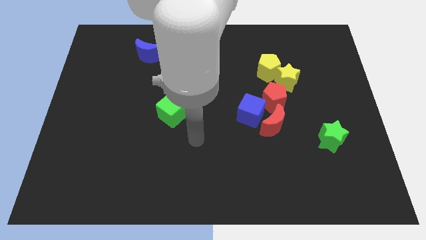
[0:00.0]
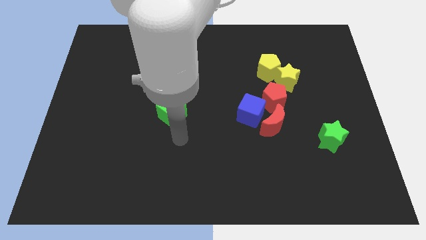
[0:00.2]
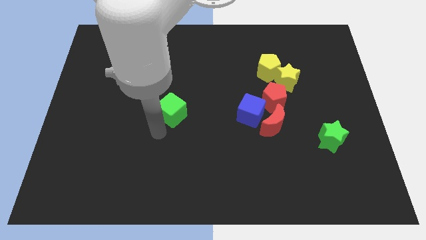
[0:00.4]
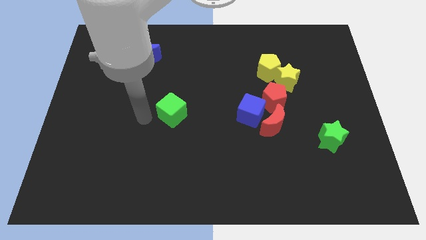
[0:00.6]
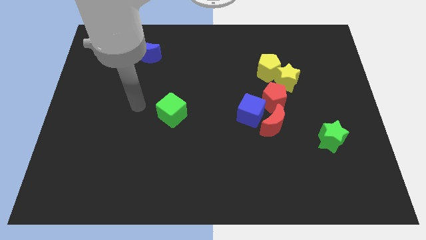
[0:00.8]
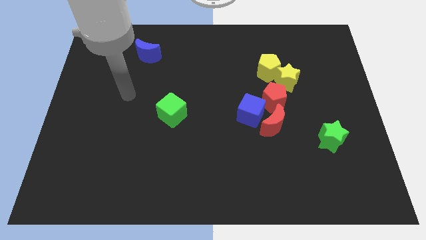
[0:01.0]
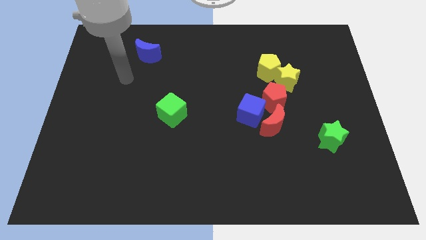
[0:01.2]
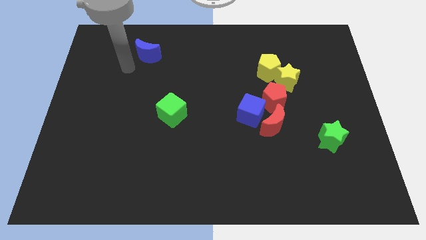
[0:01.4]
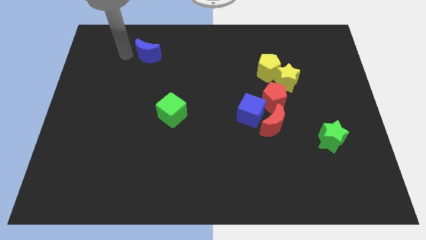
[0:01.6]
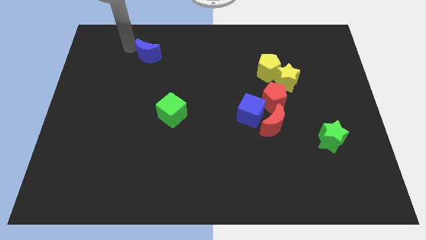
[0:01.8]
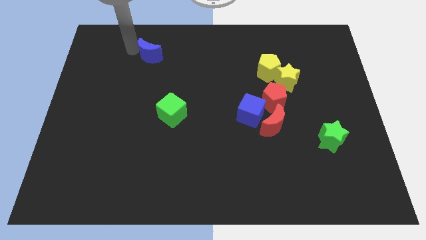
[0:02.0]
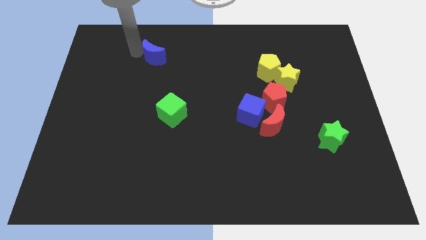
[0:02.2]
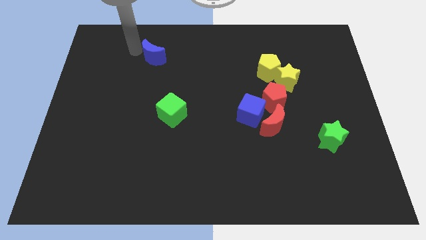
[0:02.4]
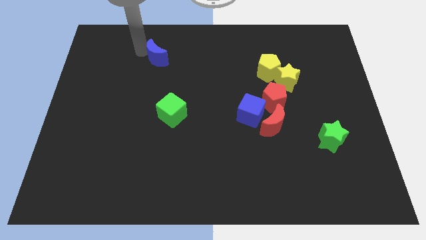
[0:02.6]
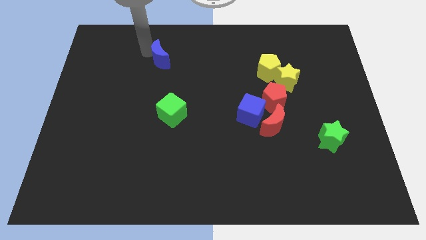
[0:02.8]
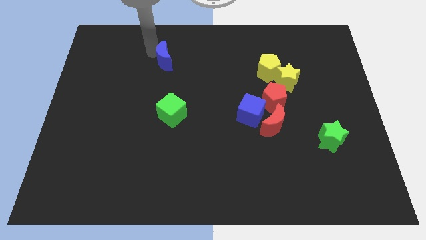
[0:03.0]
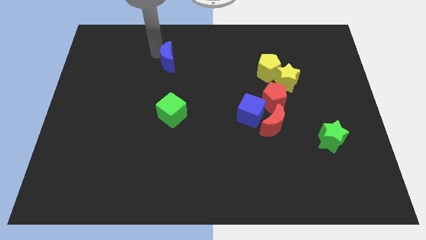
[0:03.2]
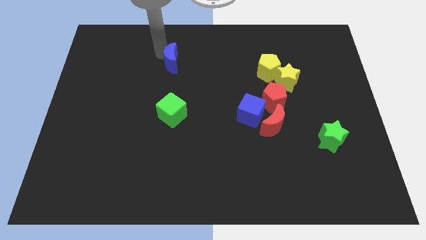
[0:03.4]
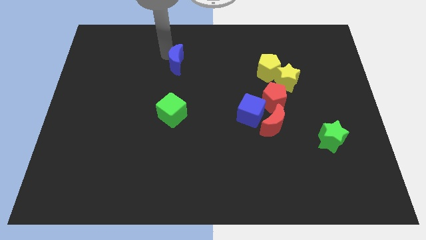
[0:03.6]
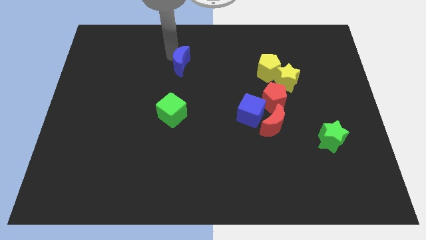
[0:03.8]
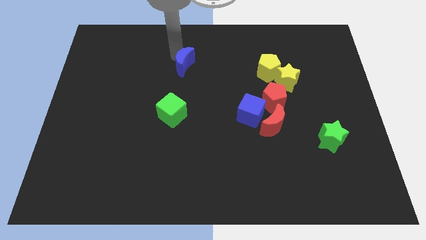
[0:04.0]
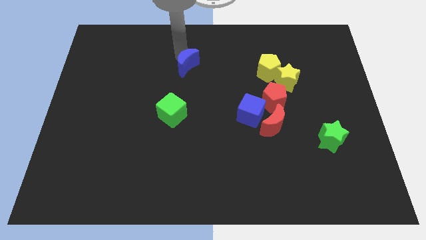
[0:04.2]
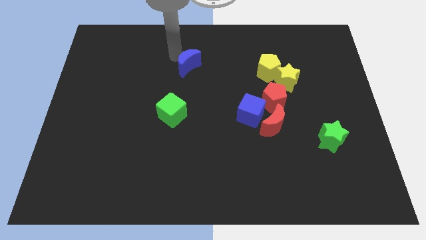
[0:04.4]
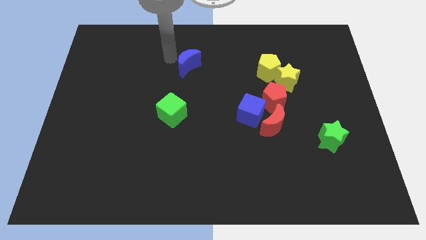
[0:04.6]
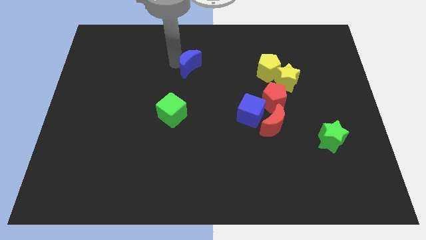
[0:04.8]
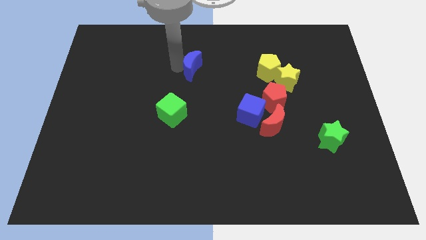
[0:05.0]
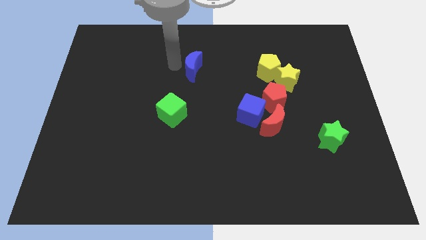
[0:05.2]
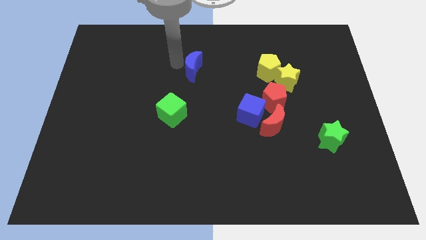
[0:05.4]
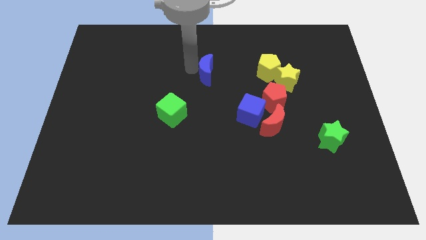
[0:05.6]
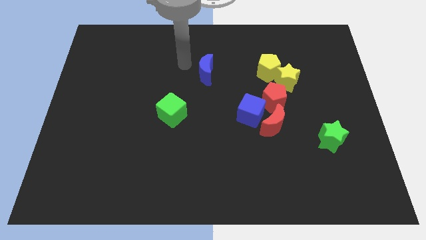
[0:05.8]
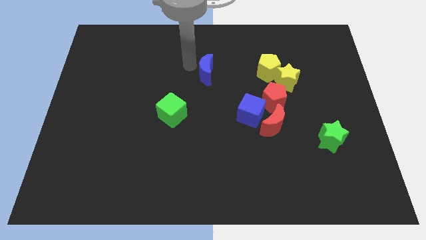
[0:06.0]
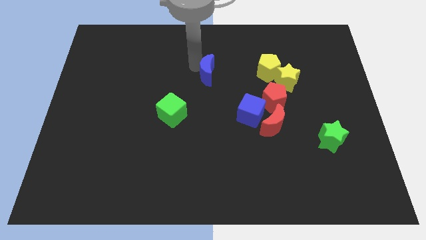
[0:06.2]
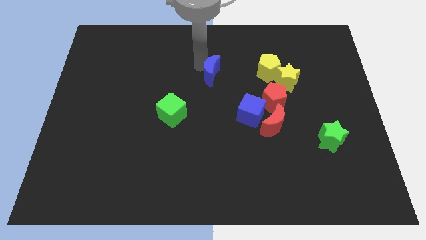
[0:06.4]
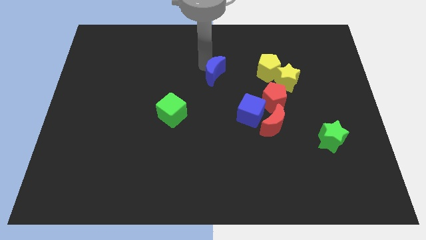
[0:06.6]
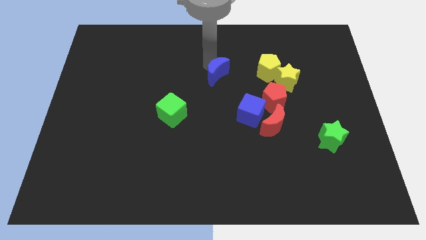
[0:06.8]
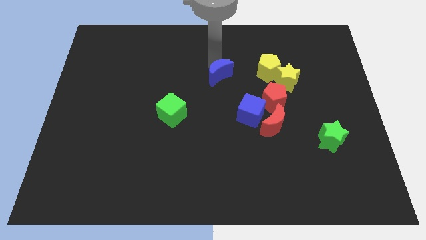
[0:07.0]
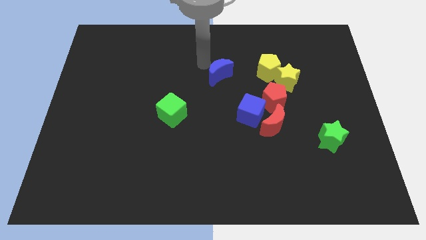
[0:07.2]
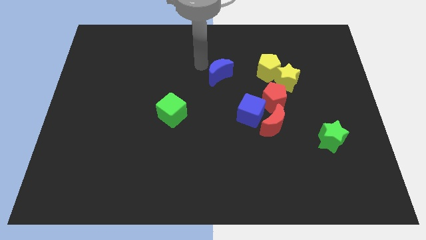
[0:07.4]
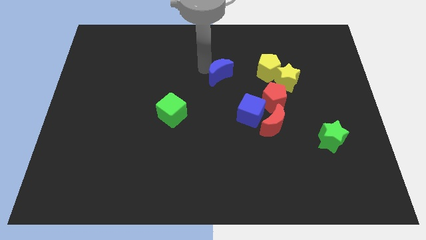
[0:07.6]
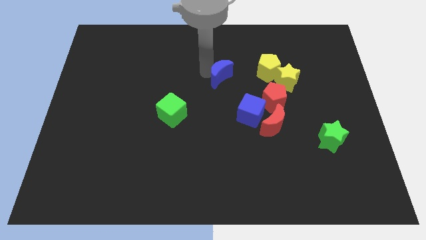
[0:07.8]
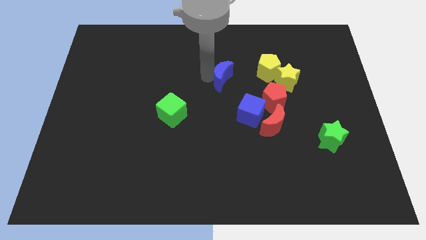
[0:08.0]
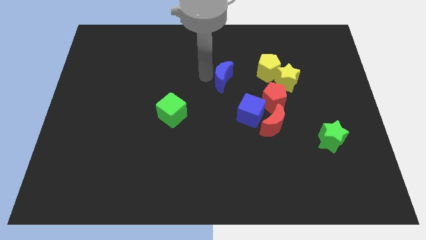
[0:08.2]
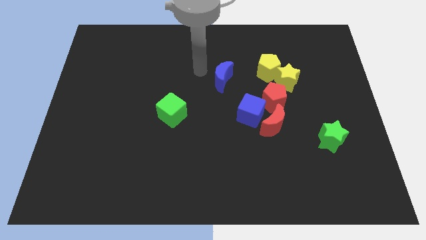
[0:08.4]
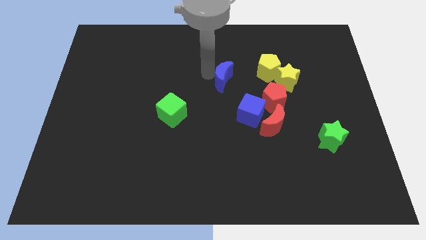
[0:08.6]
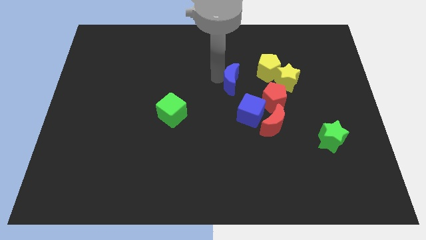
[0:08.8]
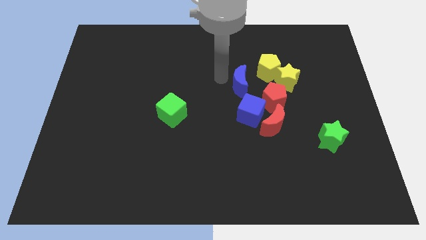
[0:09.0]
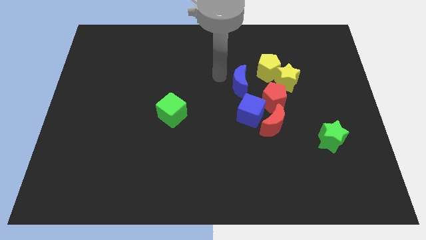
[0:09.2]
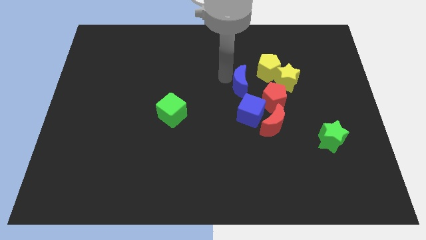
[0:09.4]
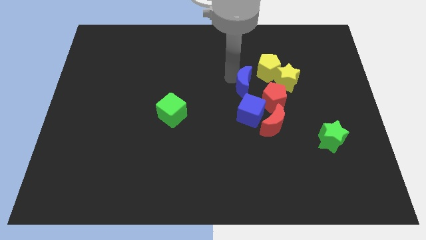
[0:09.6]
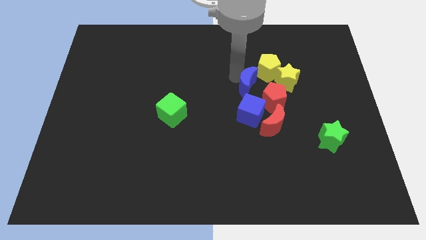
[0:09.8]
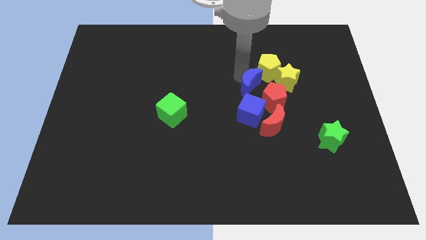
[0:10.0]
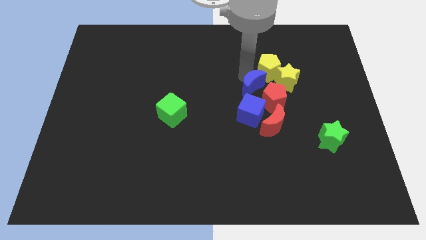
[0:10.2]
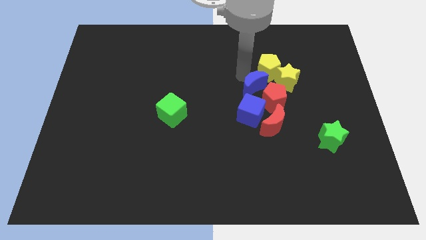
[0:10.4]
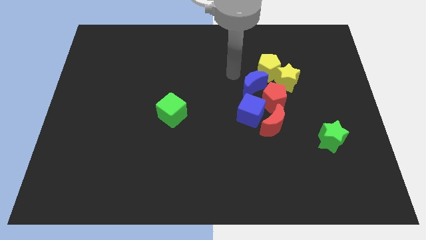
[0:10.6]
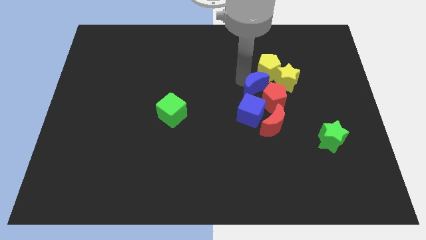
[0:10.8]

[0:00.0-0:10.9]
slide the blue moon close to the red pentagon

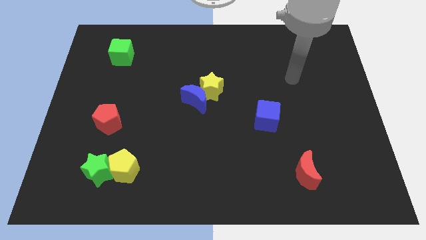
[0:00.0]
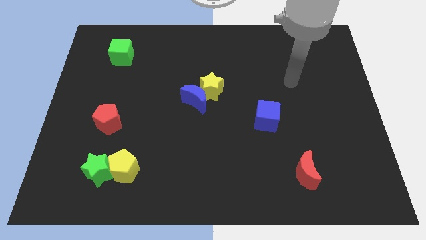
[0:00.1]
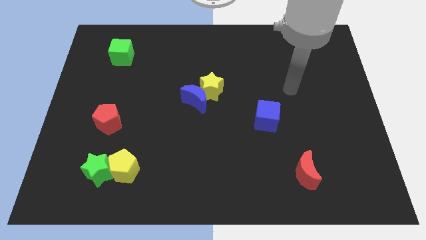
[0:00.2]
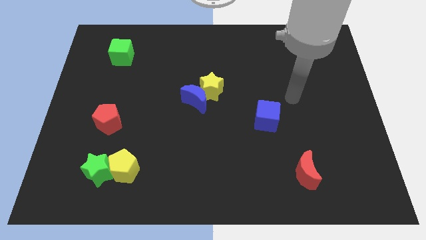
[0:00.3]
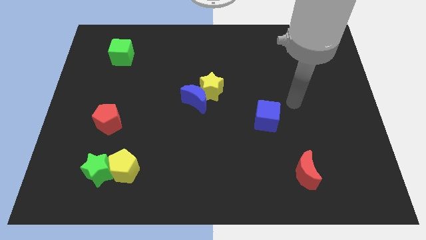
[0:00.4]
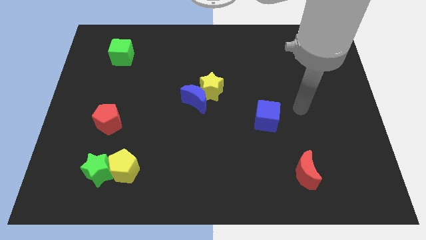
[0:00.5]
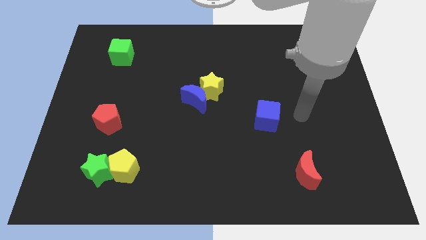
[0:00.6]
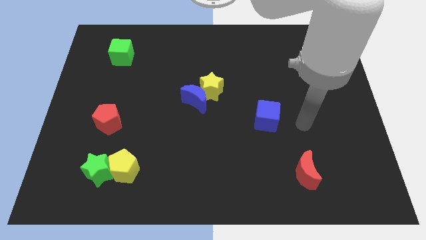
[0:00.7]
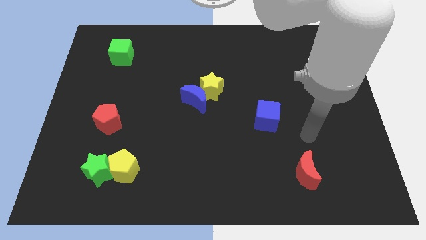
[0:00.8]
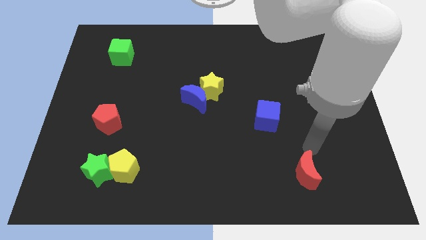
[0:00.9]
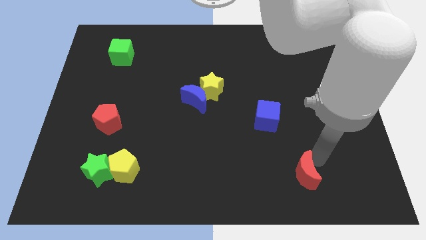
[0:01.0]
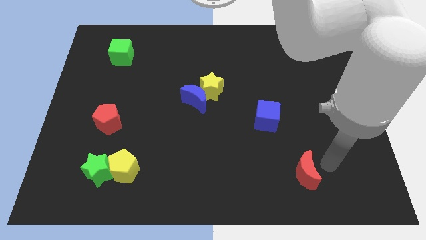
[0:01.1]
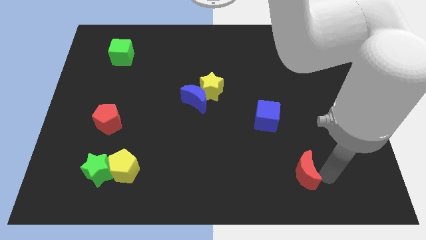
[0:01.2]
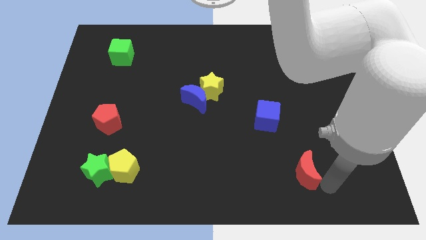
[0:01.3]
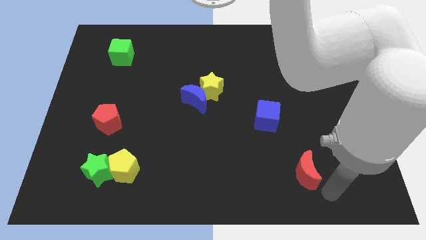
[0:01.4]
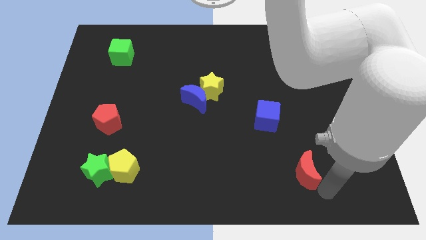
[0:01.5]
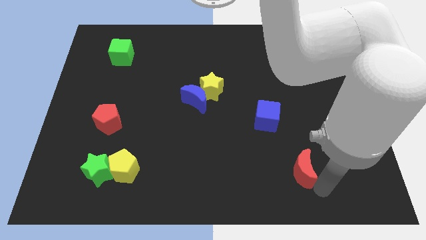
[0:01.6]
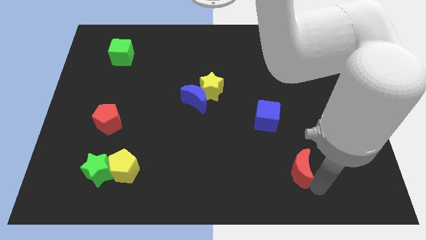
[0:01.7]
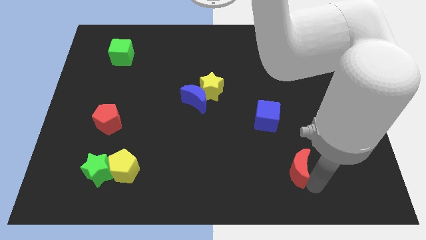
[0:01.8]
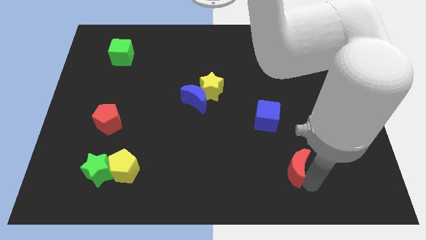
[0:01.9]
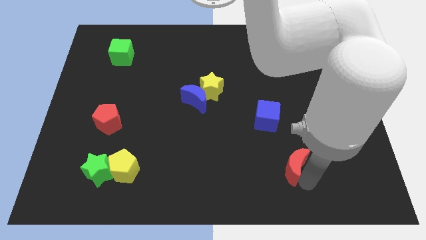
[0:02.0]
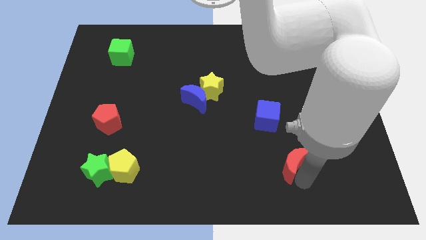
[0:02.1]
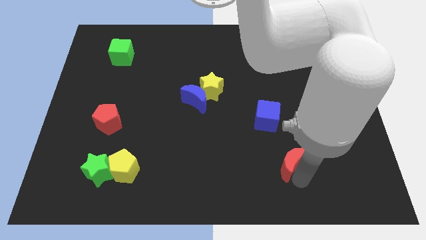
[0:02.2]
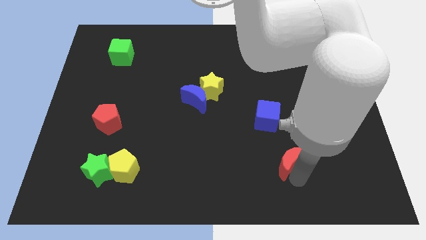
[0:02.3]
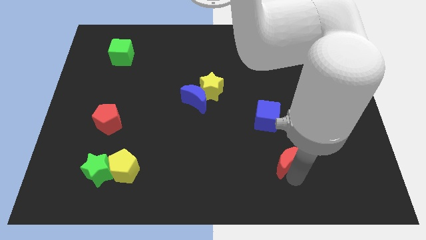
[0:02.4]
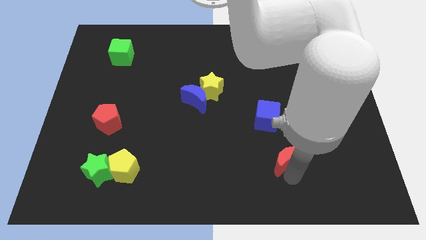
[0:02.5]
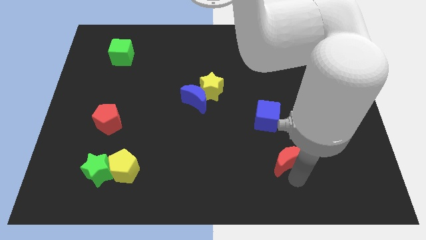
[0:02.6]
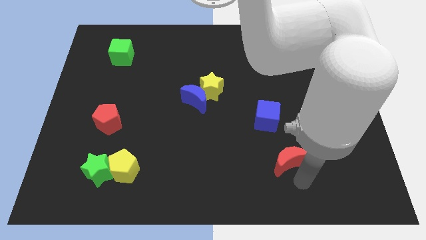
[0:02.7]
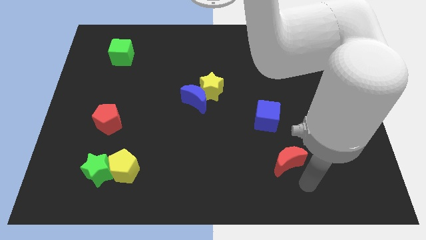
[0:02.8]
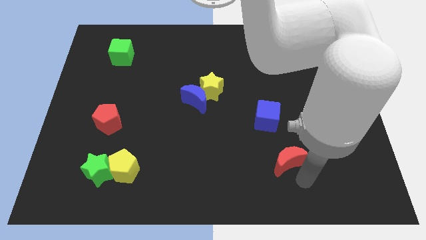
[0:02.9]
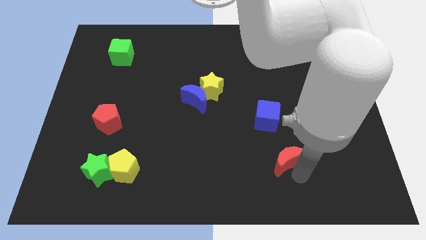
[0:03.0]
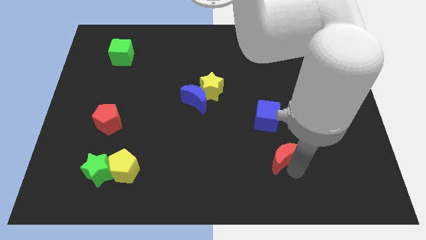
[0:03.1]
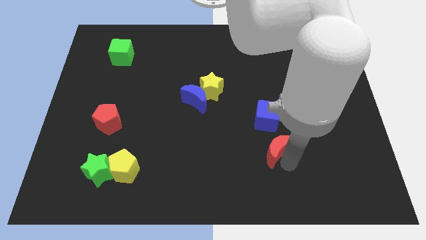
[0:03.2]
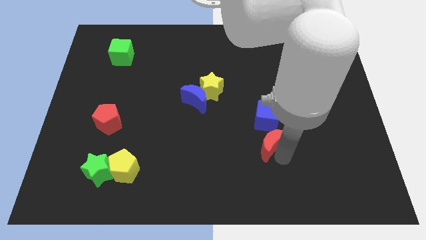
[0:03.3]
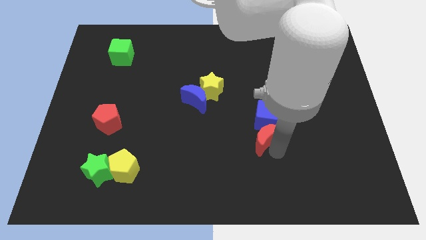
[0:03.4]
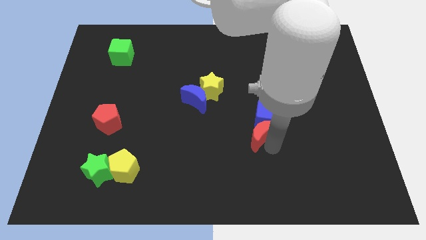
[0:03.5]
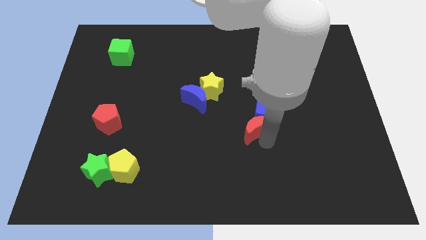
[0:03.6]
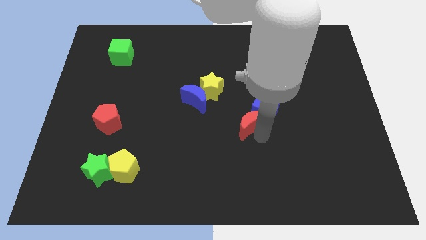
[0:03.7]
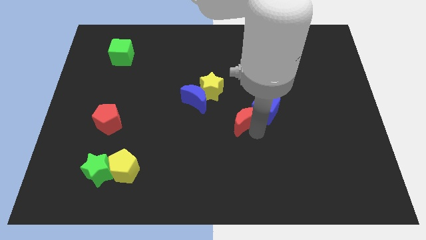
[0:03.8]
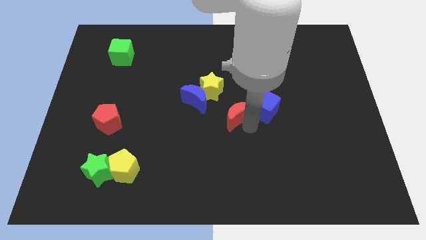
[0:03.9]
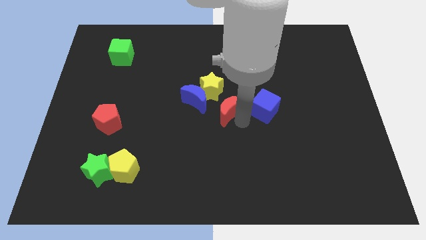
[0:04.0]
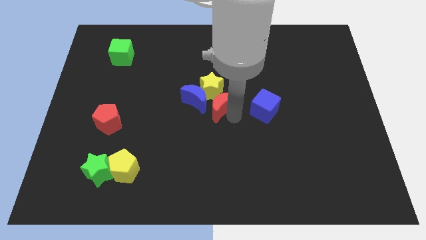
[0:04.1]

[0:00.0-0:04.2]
put the red moon next to the yellow star
